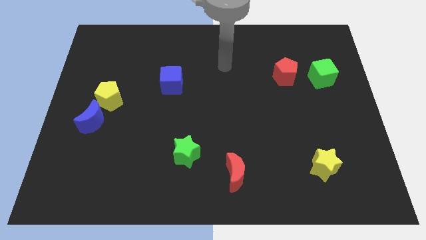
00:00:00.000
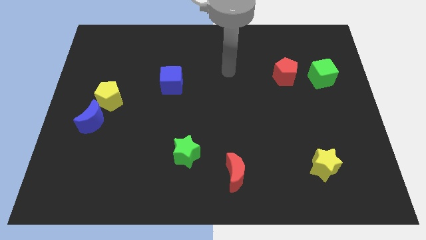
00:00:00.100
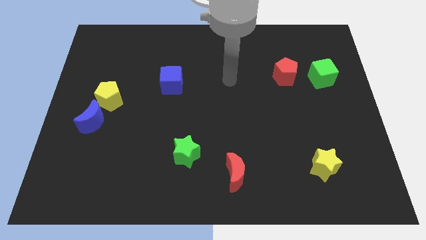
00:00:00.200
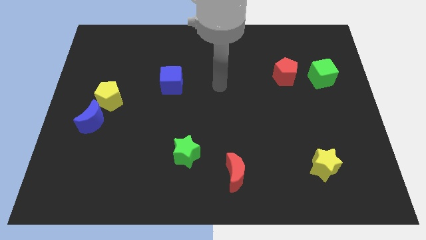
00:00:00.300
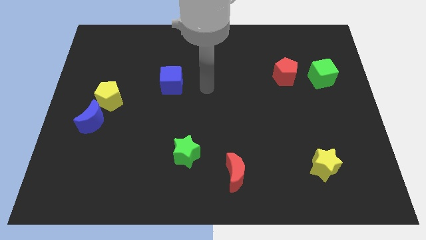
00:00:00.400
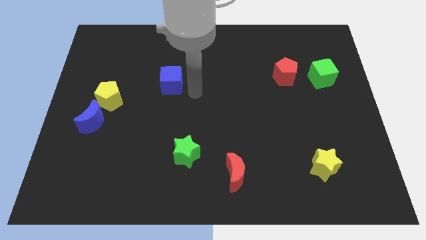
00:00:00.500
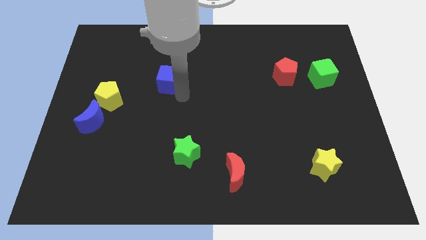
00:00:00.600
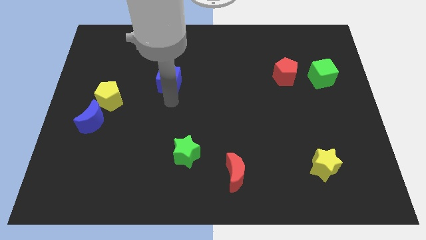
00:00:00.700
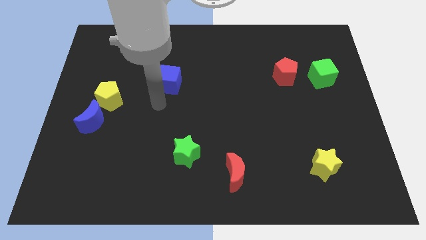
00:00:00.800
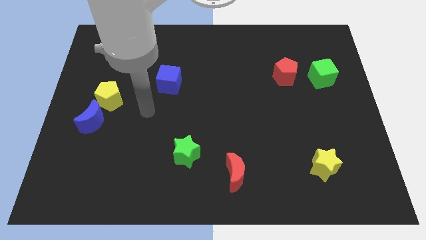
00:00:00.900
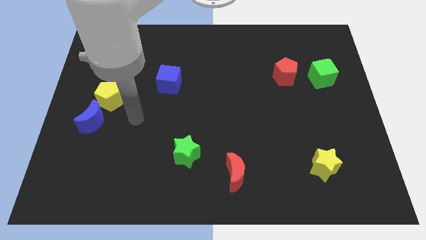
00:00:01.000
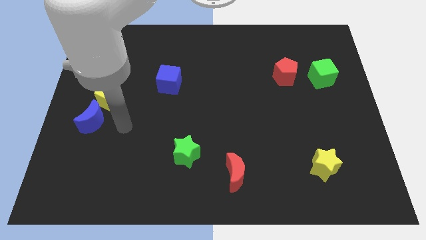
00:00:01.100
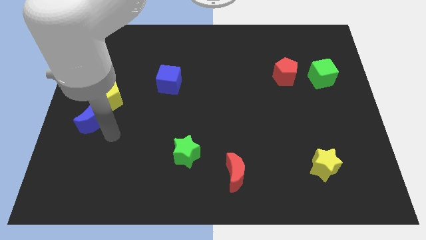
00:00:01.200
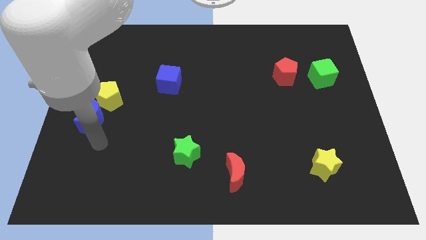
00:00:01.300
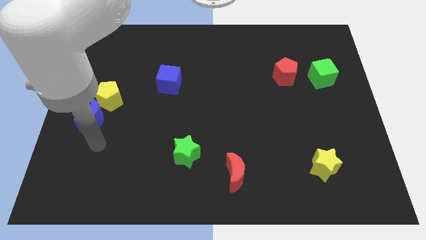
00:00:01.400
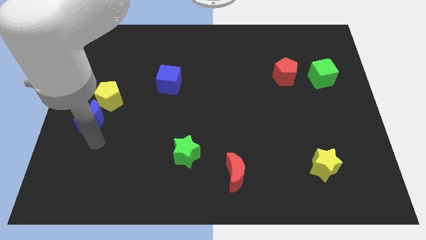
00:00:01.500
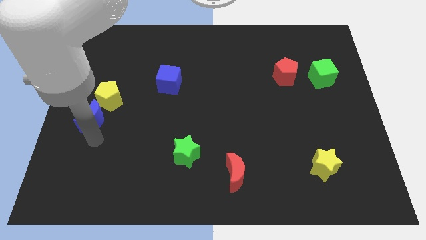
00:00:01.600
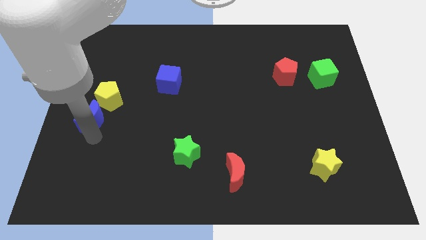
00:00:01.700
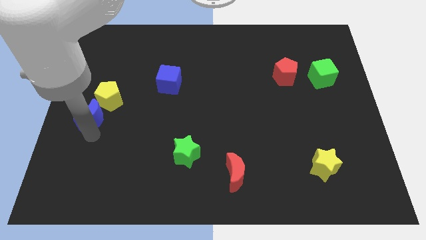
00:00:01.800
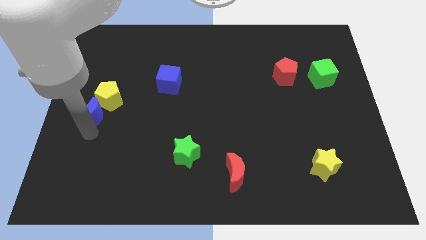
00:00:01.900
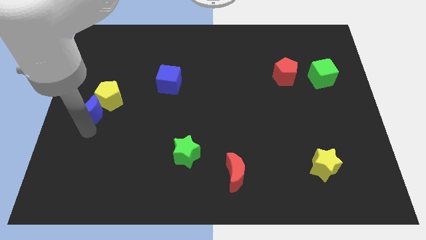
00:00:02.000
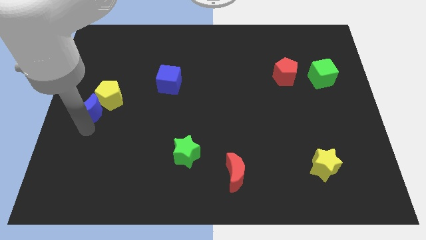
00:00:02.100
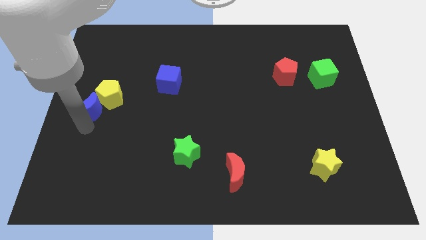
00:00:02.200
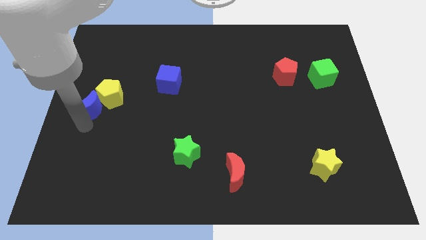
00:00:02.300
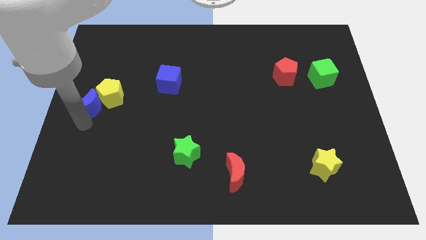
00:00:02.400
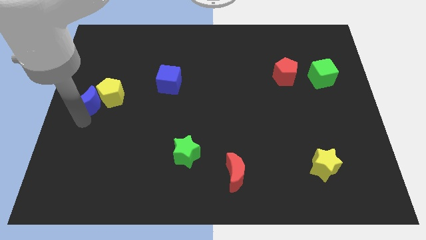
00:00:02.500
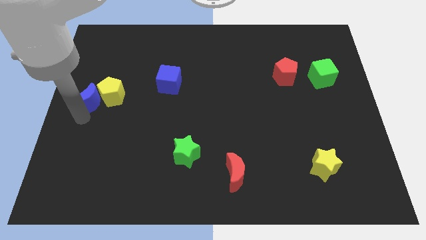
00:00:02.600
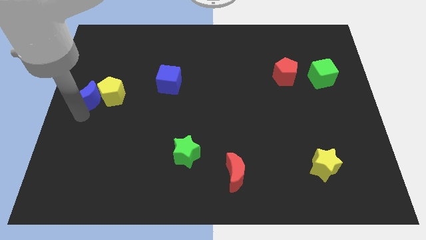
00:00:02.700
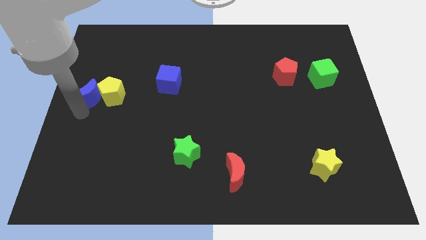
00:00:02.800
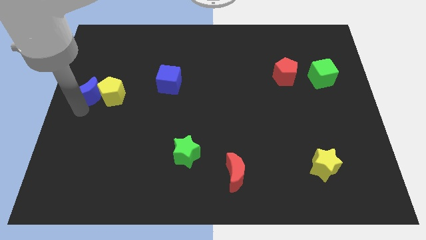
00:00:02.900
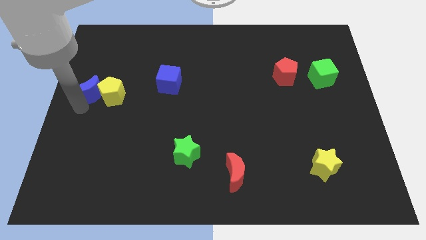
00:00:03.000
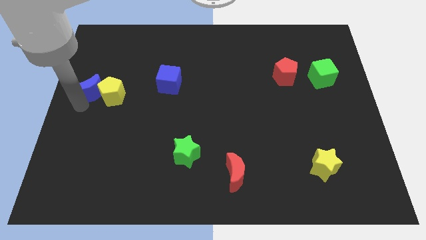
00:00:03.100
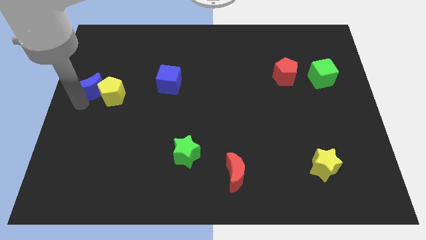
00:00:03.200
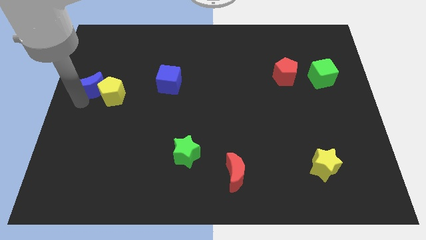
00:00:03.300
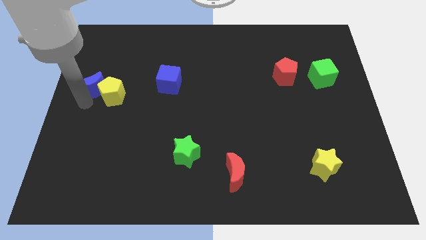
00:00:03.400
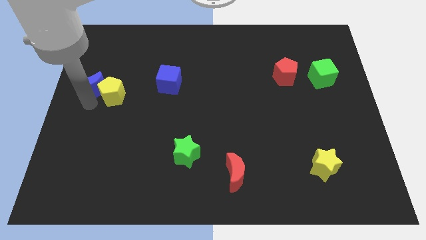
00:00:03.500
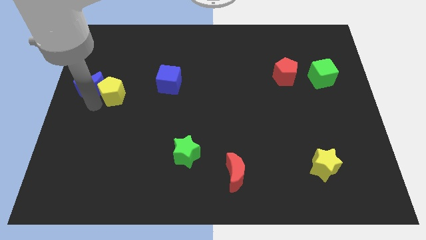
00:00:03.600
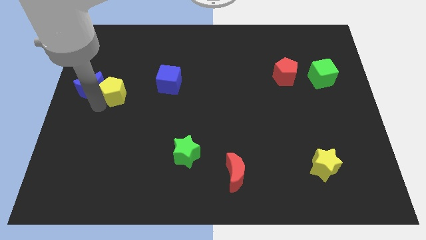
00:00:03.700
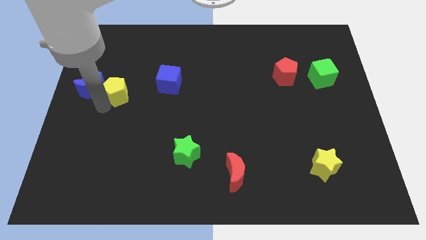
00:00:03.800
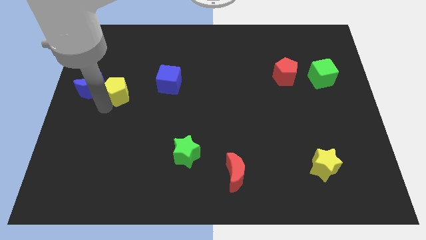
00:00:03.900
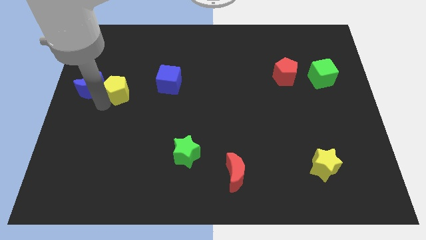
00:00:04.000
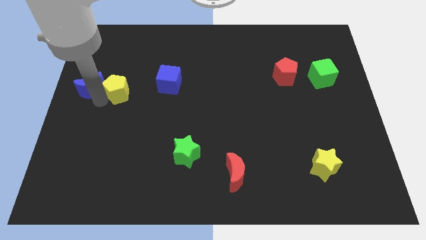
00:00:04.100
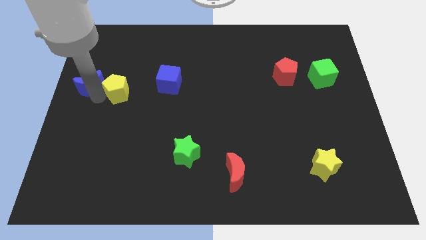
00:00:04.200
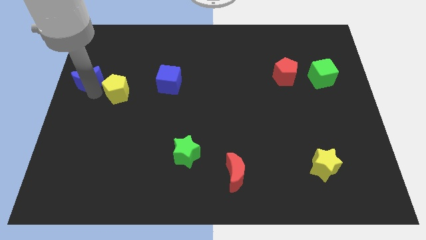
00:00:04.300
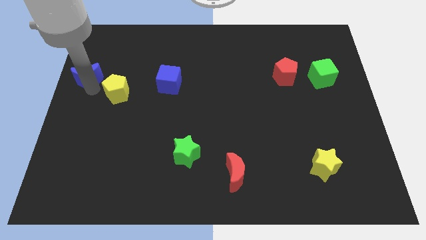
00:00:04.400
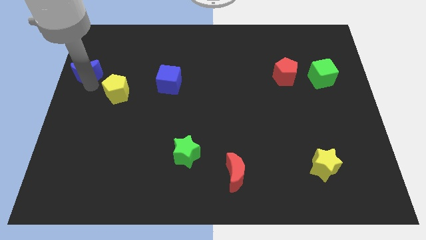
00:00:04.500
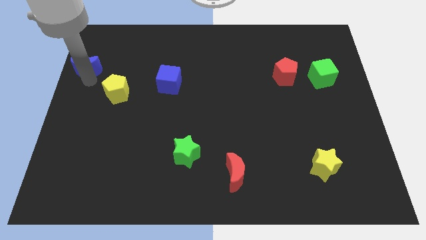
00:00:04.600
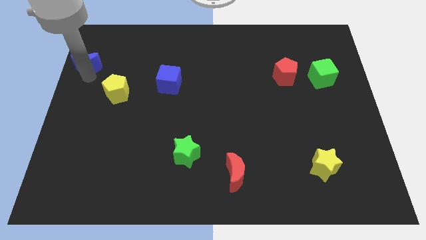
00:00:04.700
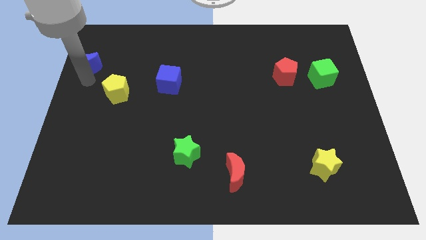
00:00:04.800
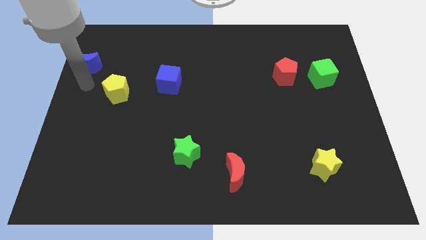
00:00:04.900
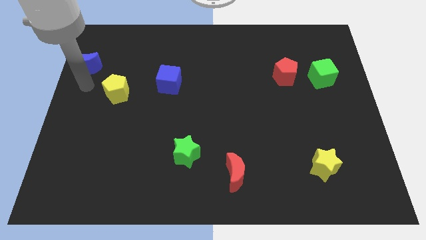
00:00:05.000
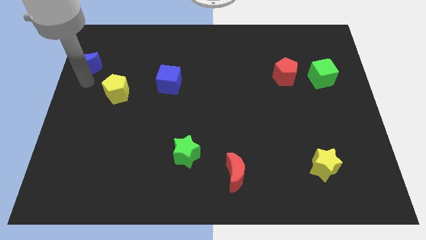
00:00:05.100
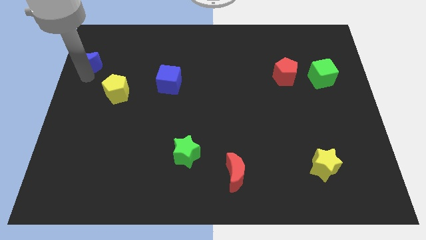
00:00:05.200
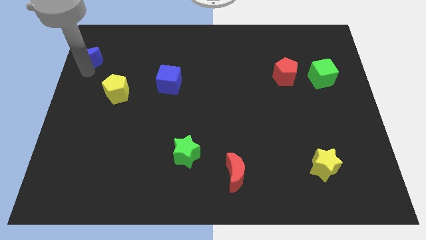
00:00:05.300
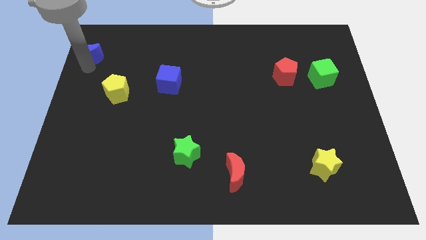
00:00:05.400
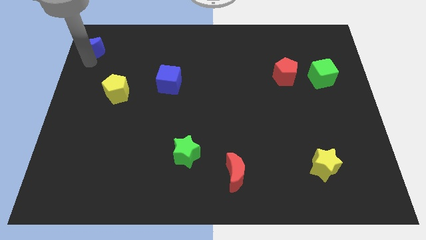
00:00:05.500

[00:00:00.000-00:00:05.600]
push the blue moon to the top left of the board
